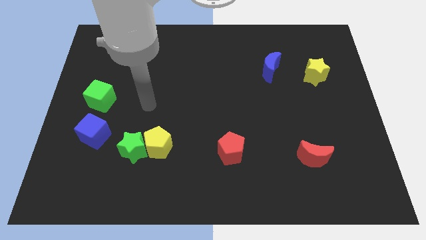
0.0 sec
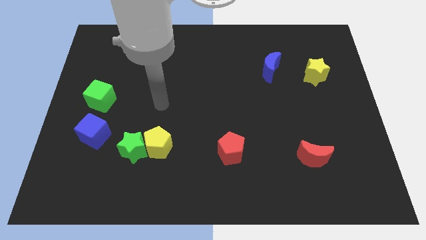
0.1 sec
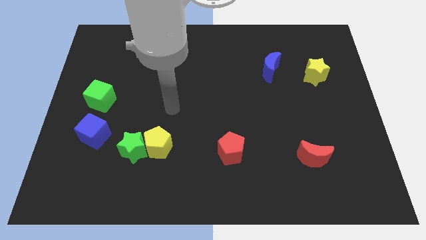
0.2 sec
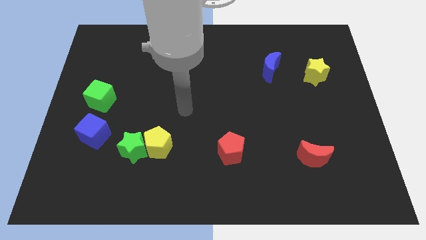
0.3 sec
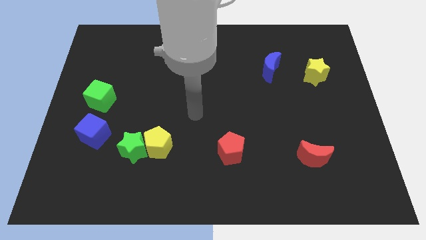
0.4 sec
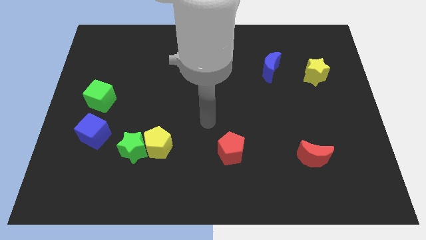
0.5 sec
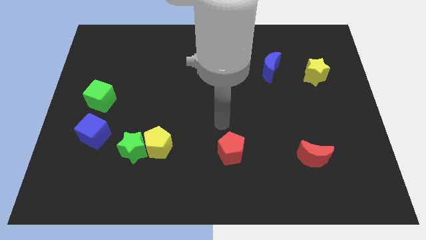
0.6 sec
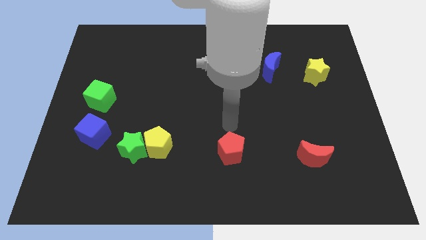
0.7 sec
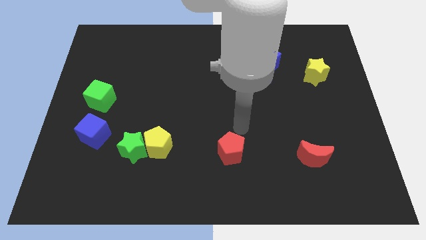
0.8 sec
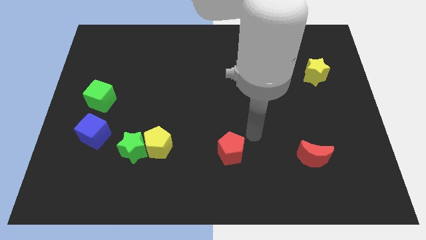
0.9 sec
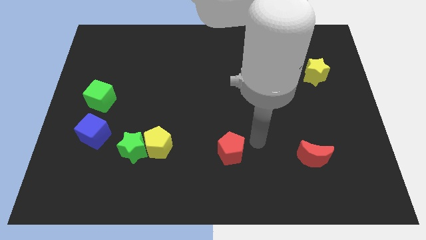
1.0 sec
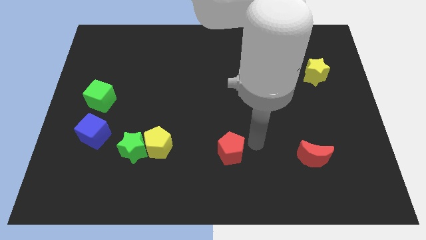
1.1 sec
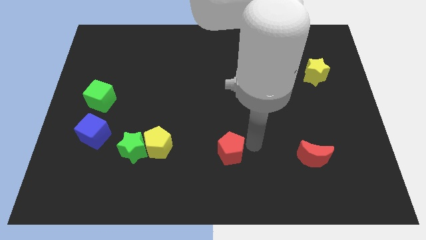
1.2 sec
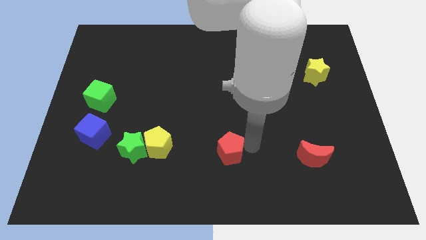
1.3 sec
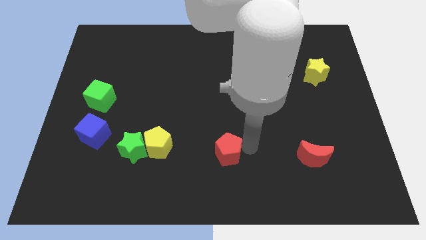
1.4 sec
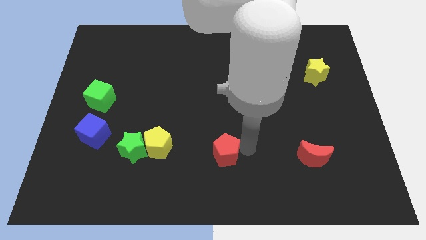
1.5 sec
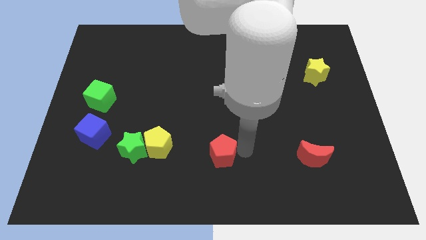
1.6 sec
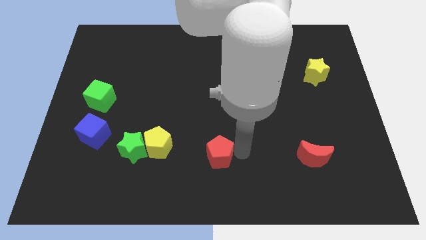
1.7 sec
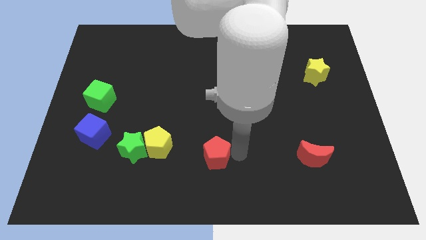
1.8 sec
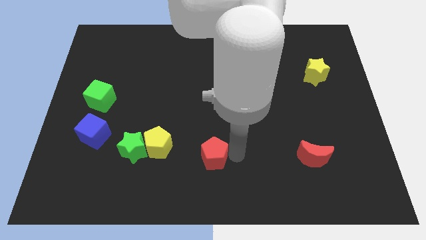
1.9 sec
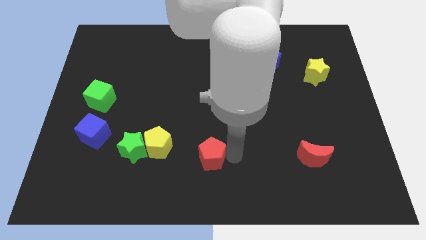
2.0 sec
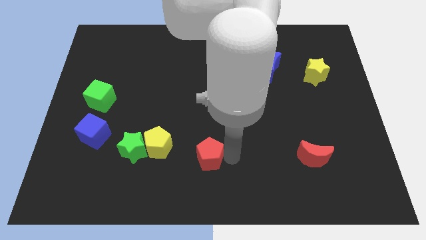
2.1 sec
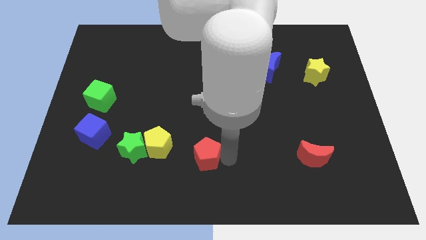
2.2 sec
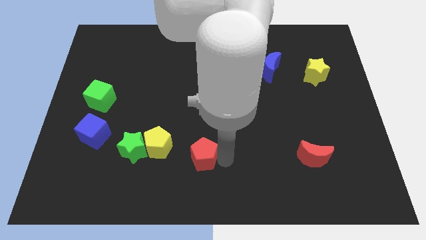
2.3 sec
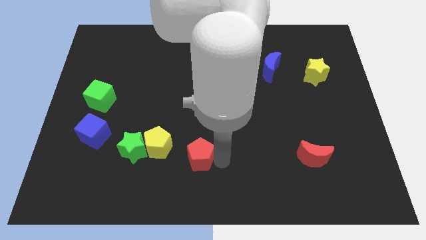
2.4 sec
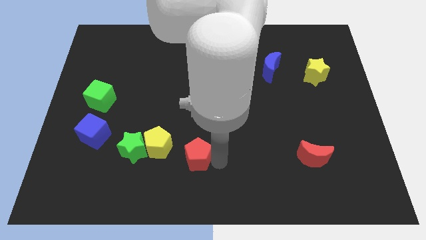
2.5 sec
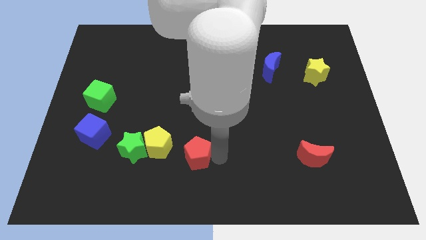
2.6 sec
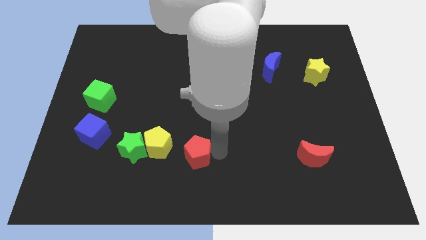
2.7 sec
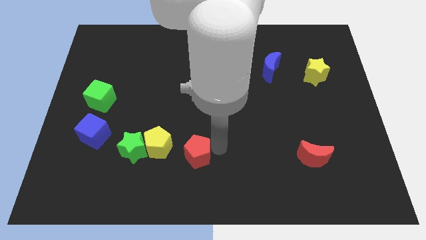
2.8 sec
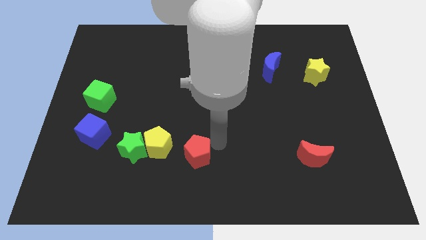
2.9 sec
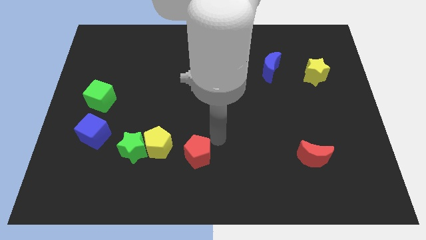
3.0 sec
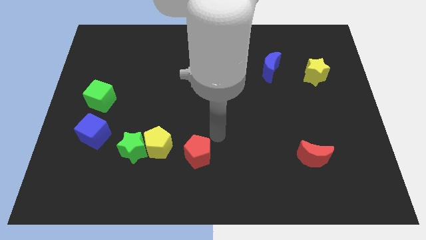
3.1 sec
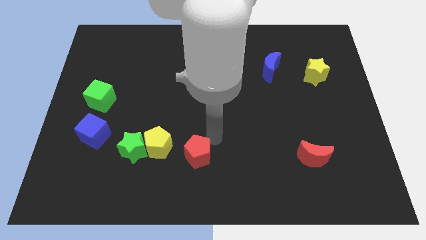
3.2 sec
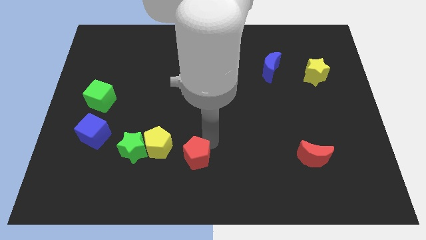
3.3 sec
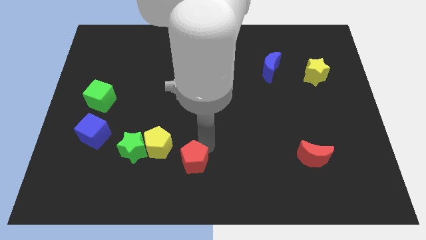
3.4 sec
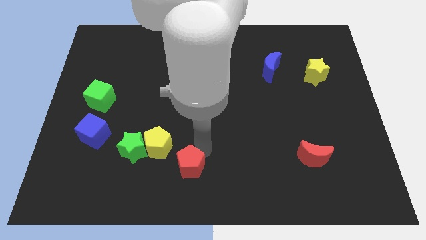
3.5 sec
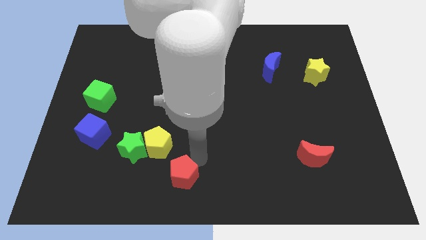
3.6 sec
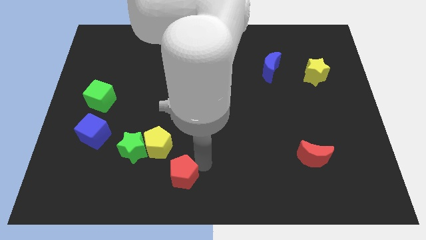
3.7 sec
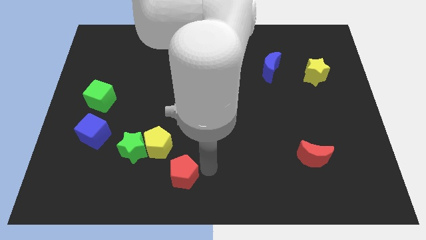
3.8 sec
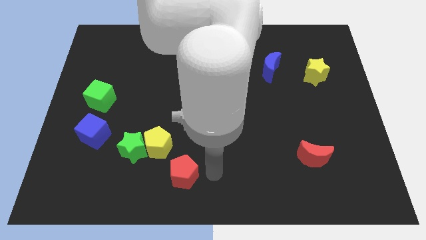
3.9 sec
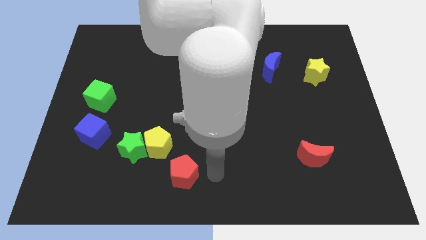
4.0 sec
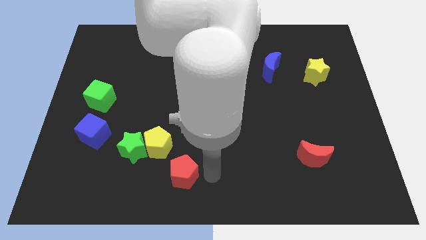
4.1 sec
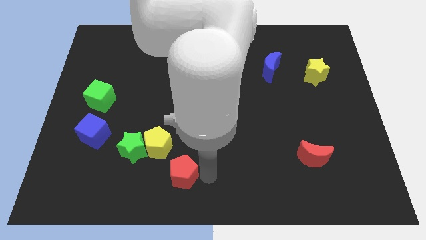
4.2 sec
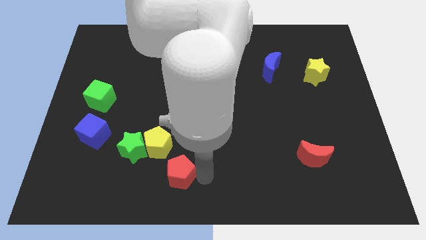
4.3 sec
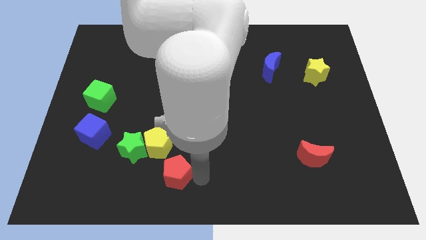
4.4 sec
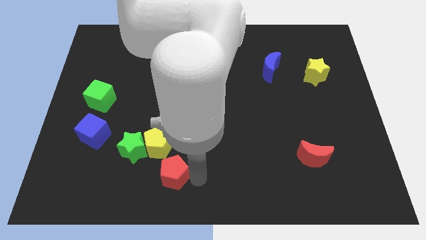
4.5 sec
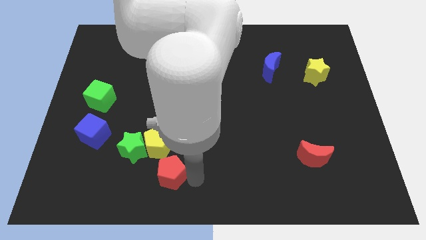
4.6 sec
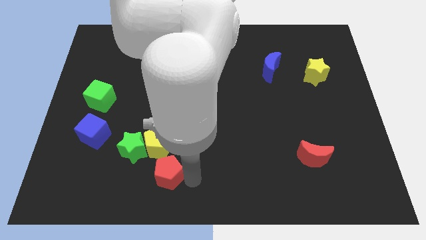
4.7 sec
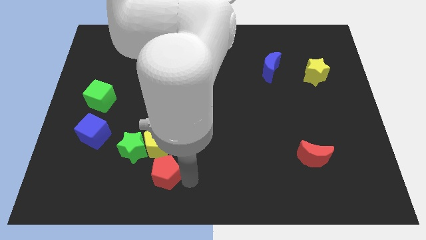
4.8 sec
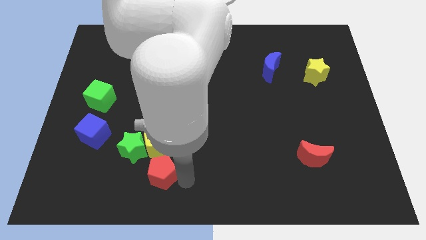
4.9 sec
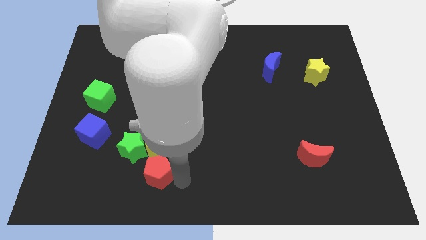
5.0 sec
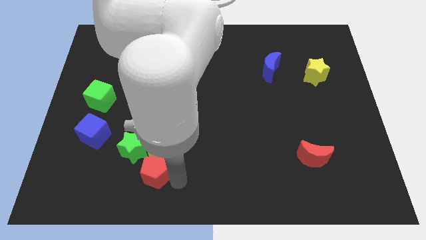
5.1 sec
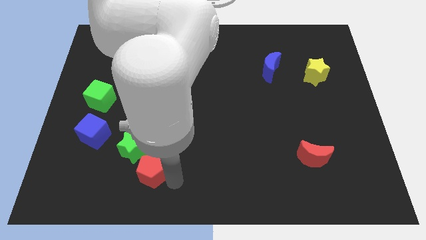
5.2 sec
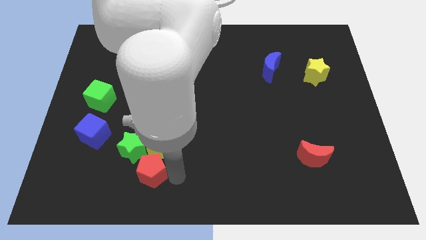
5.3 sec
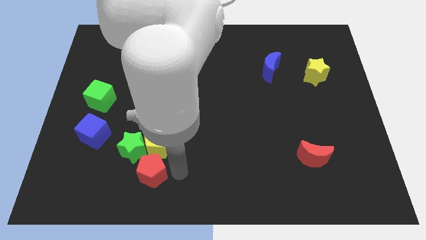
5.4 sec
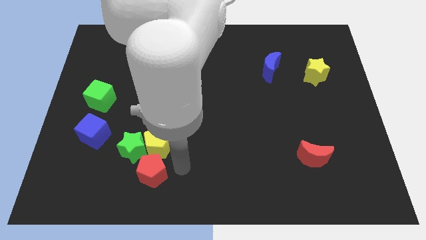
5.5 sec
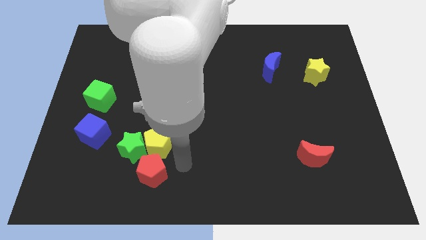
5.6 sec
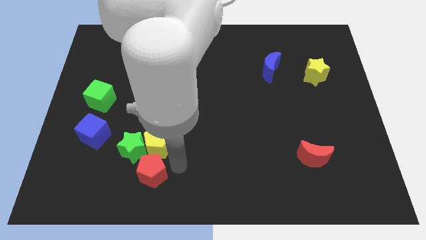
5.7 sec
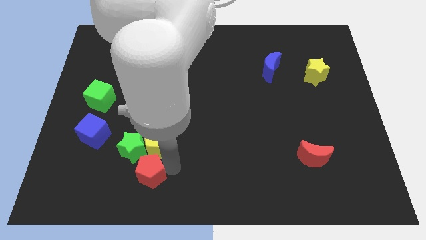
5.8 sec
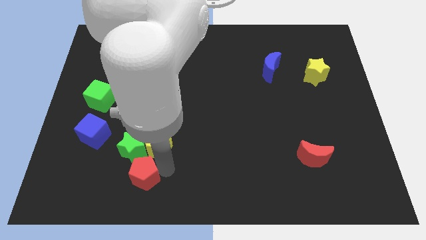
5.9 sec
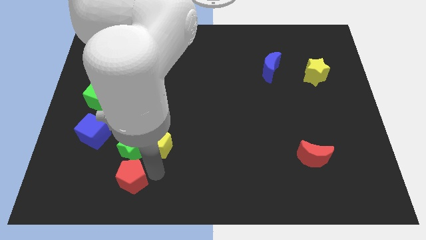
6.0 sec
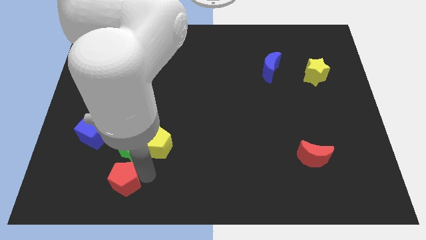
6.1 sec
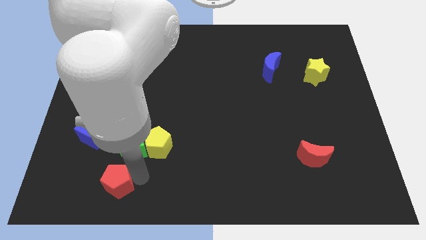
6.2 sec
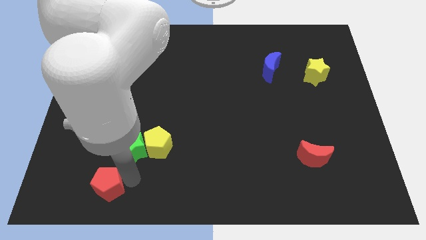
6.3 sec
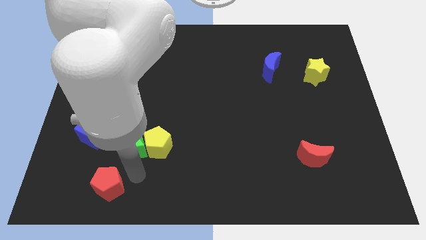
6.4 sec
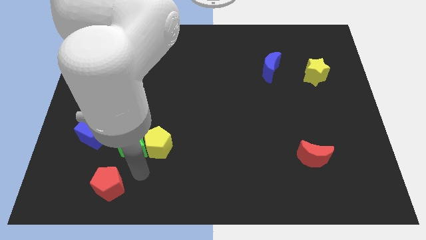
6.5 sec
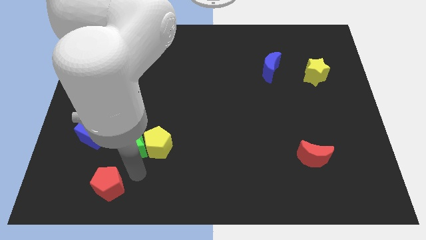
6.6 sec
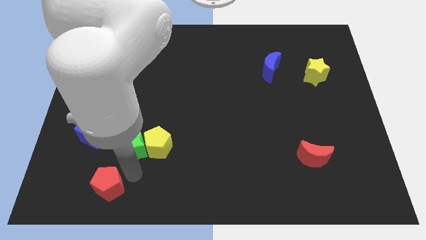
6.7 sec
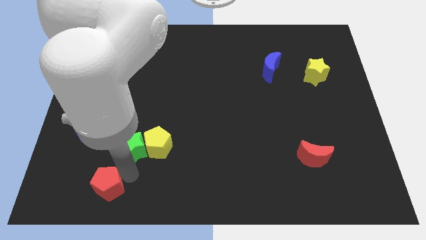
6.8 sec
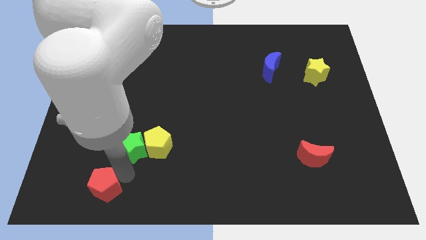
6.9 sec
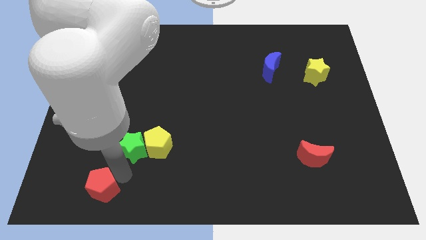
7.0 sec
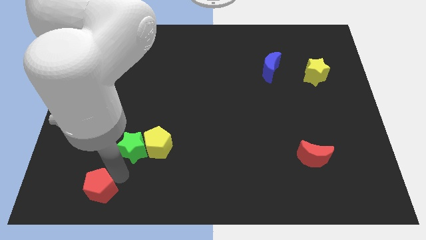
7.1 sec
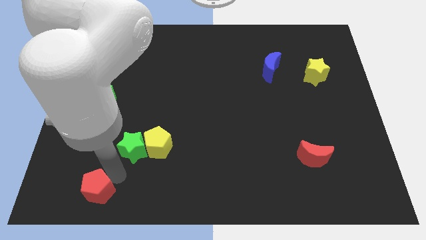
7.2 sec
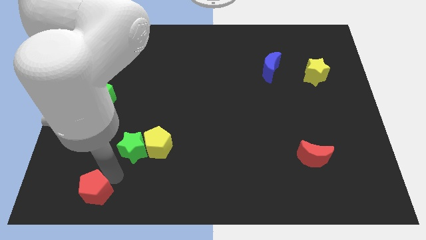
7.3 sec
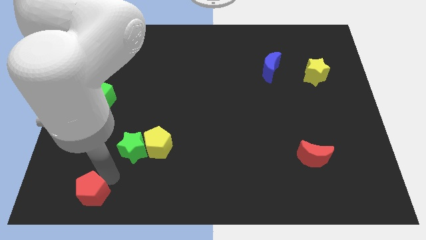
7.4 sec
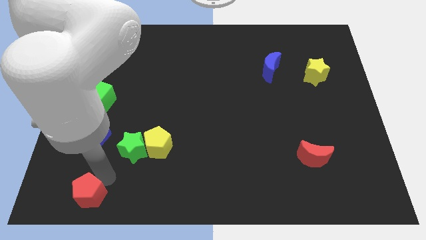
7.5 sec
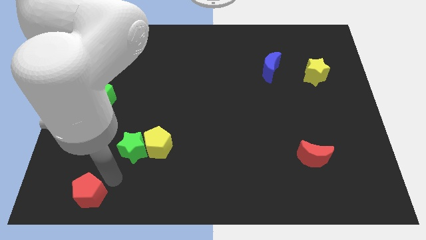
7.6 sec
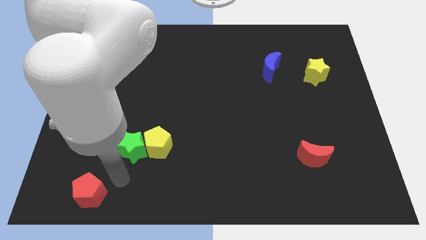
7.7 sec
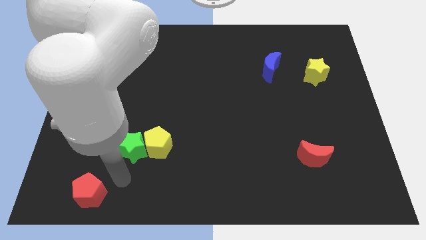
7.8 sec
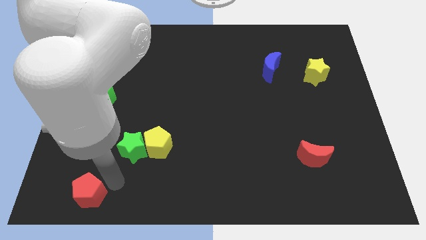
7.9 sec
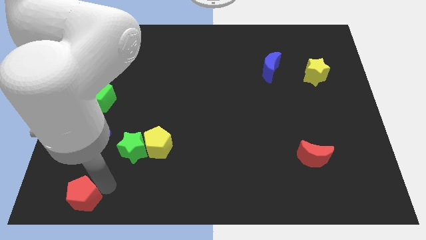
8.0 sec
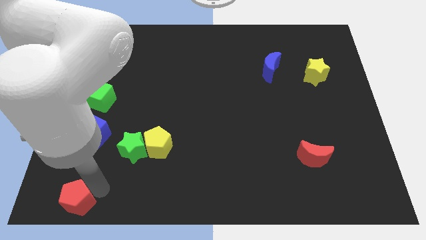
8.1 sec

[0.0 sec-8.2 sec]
slide the red pentagon to the bottom left corner
